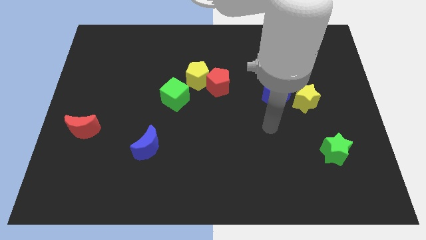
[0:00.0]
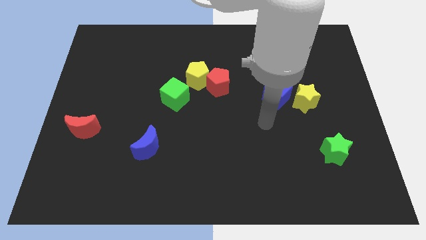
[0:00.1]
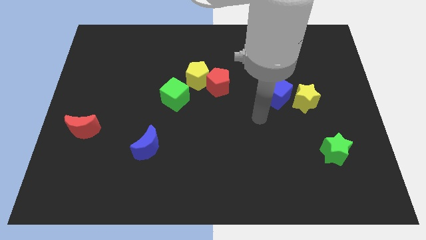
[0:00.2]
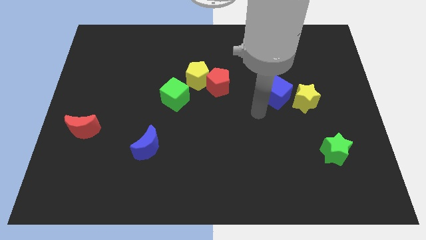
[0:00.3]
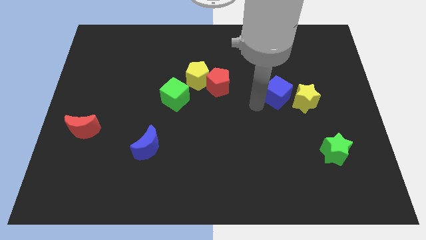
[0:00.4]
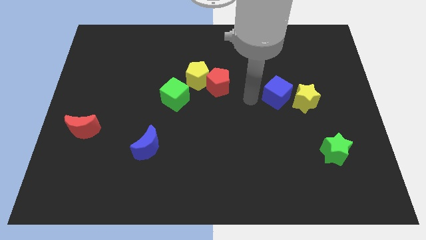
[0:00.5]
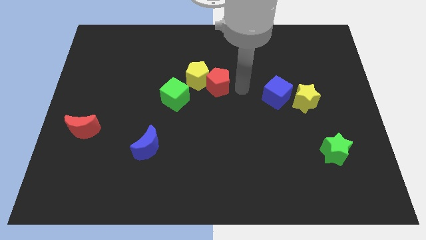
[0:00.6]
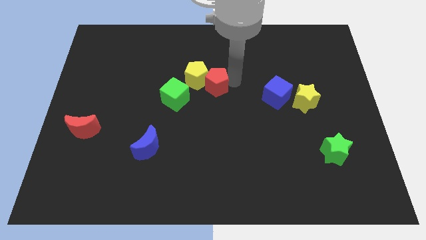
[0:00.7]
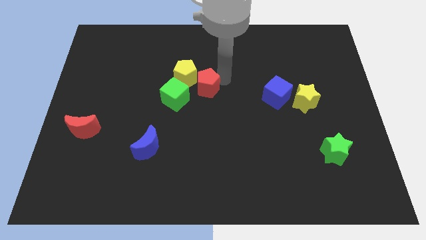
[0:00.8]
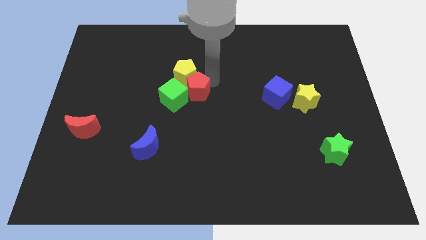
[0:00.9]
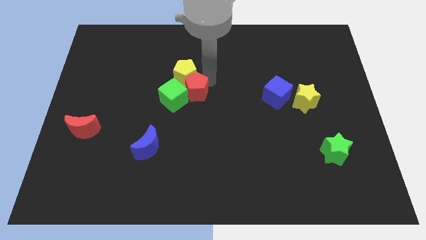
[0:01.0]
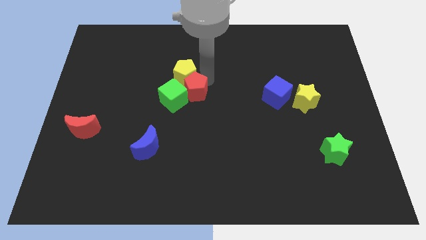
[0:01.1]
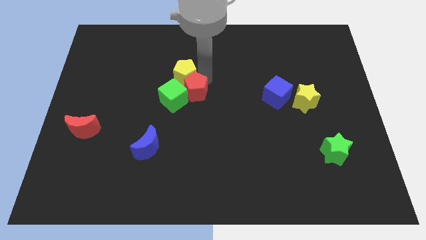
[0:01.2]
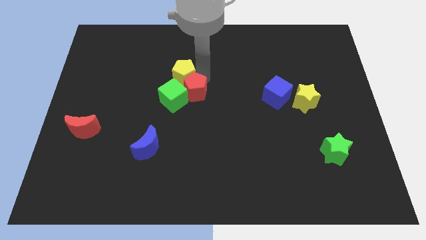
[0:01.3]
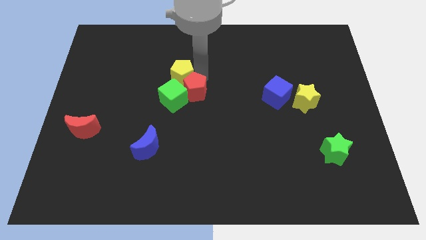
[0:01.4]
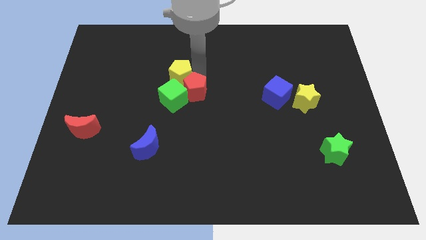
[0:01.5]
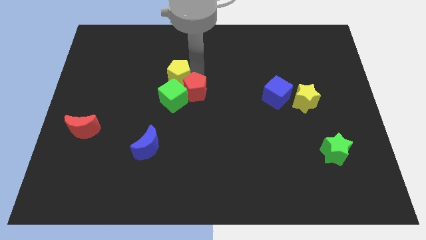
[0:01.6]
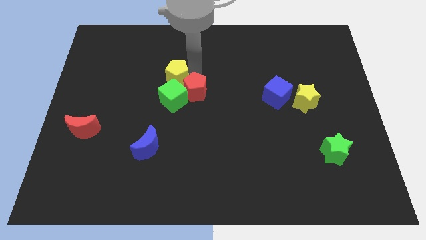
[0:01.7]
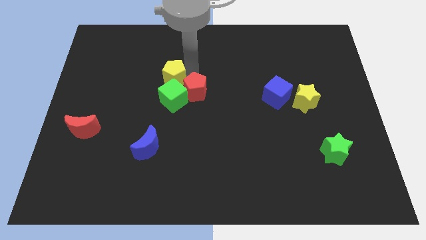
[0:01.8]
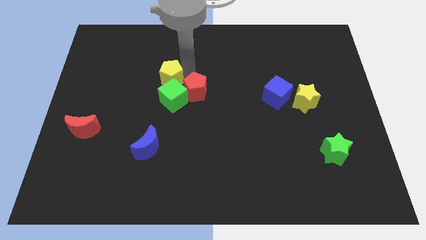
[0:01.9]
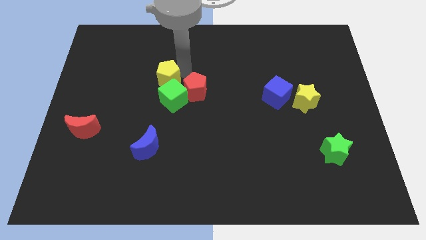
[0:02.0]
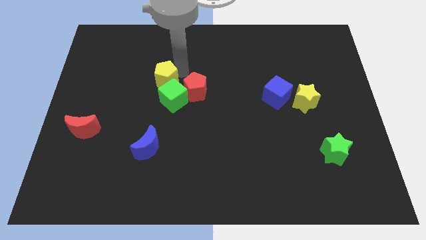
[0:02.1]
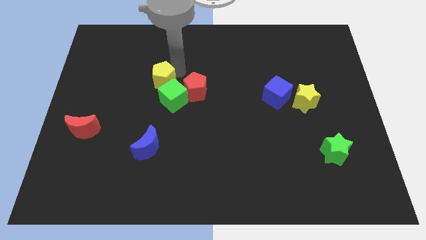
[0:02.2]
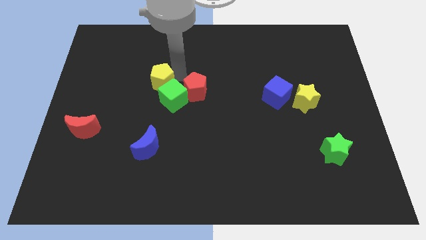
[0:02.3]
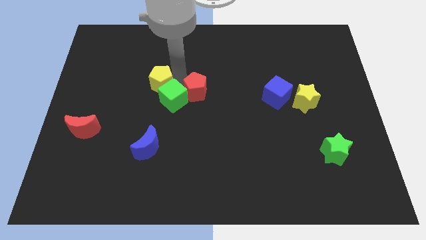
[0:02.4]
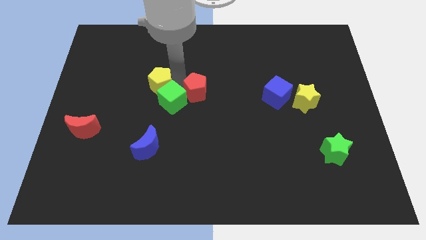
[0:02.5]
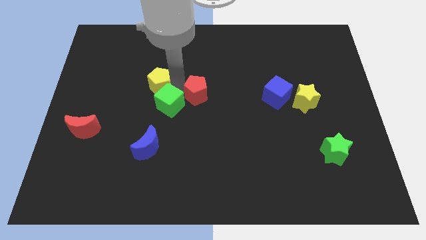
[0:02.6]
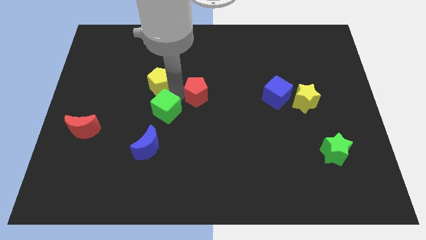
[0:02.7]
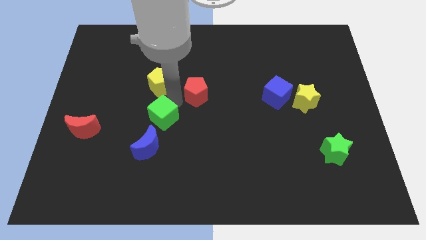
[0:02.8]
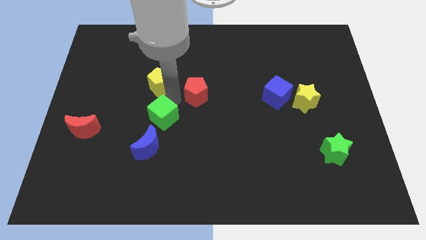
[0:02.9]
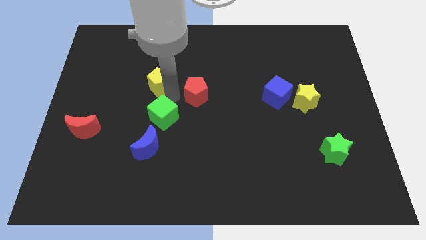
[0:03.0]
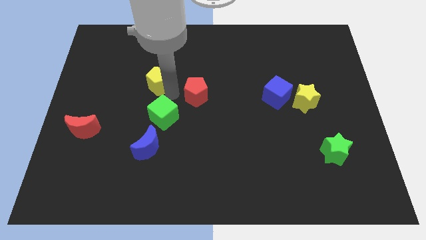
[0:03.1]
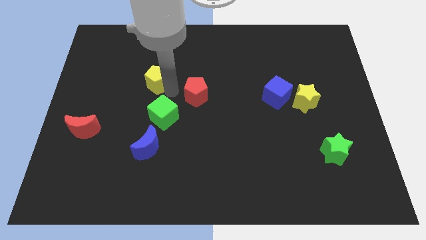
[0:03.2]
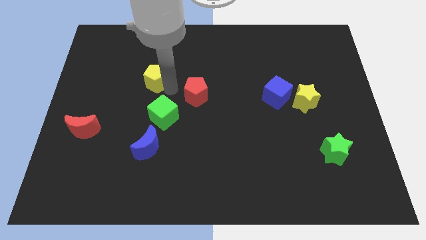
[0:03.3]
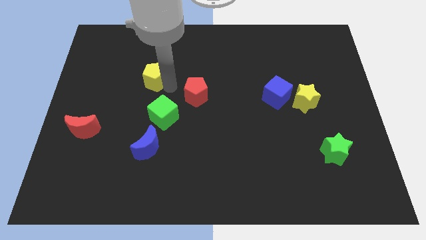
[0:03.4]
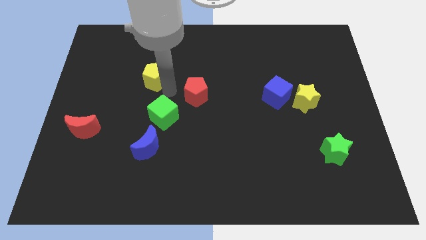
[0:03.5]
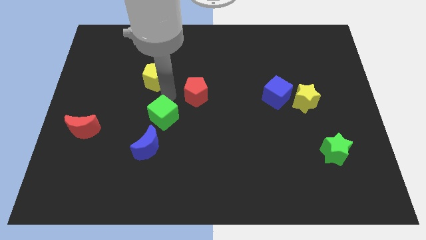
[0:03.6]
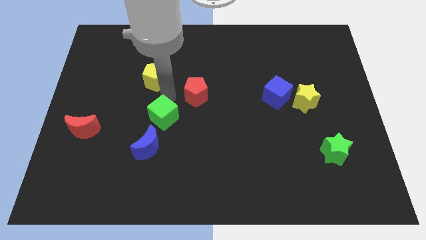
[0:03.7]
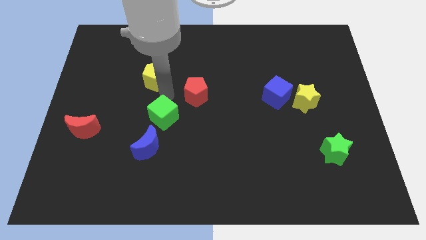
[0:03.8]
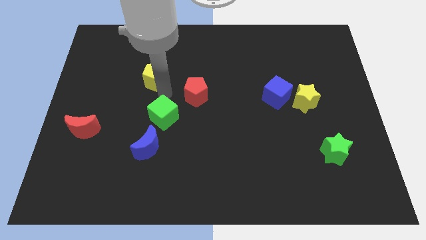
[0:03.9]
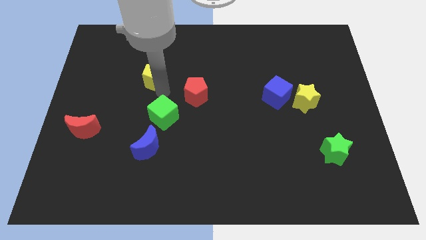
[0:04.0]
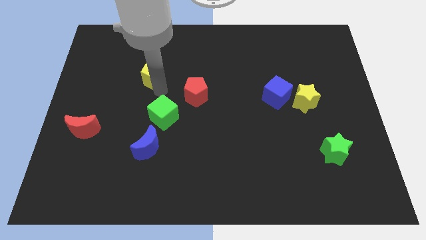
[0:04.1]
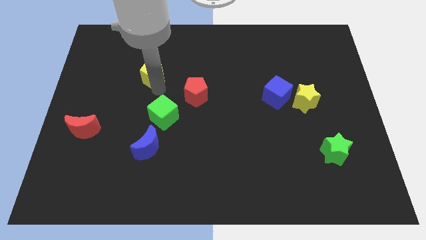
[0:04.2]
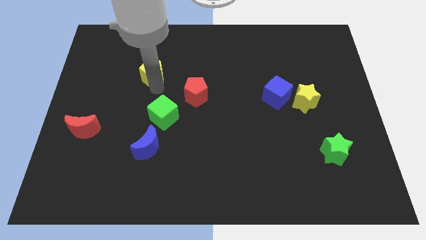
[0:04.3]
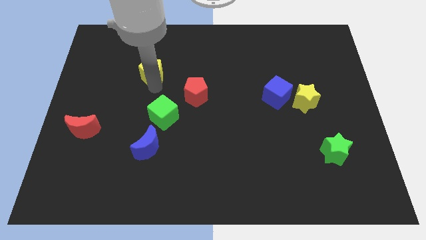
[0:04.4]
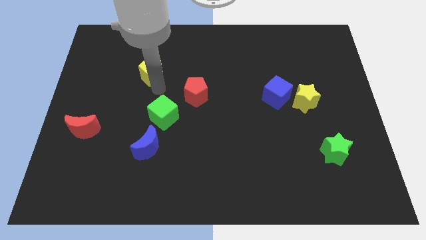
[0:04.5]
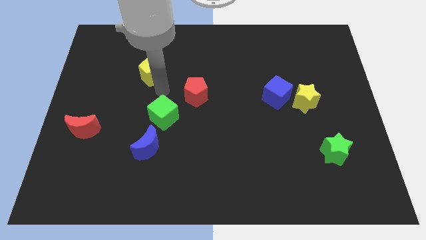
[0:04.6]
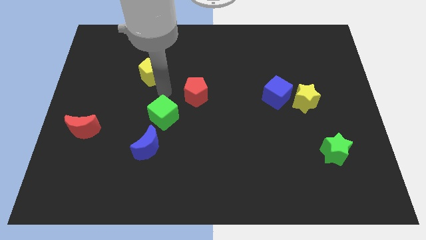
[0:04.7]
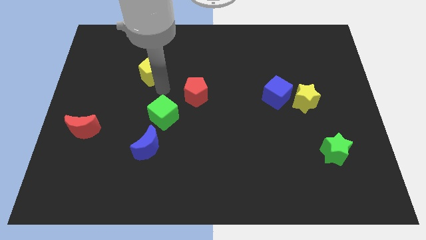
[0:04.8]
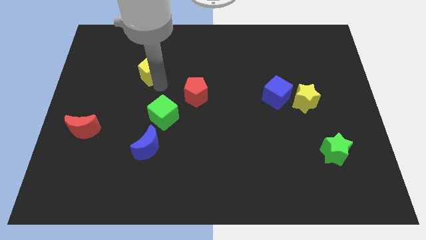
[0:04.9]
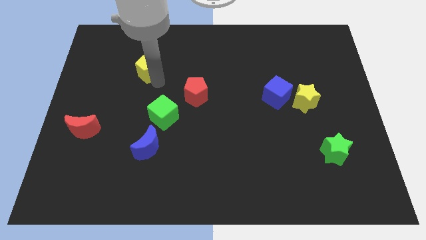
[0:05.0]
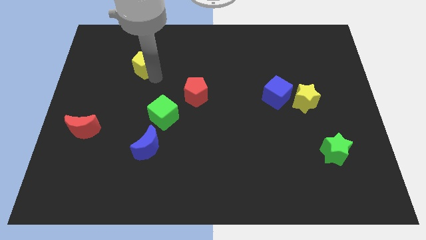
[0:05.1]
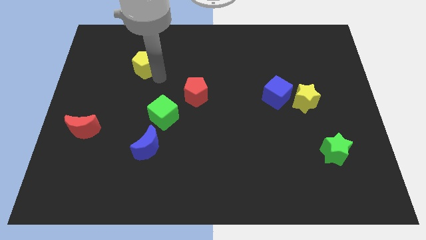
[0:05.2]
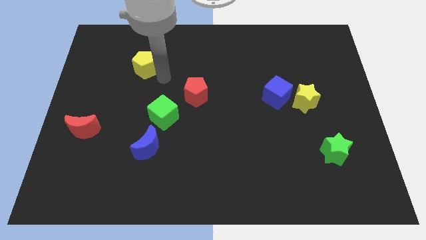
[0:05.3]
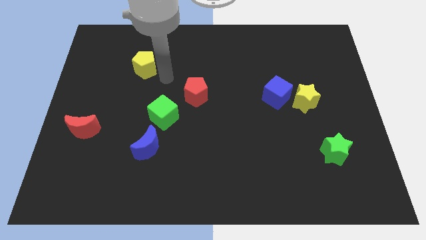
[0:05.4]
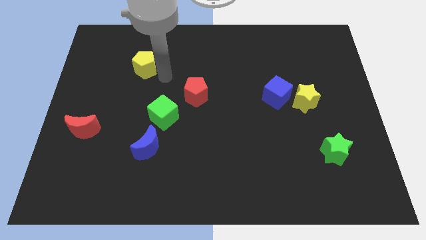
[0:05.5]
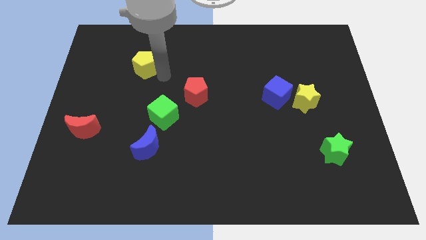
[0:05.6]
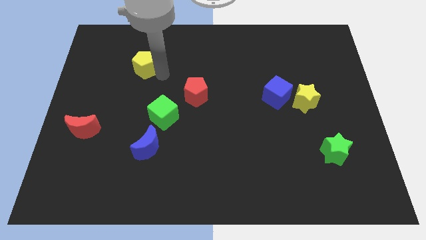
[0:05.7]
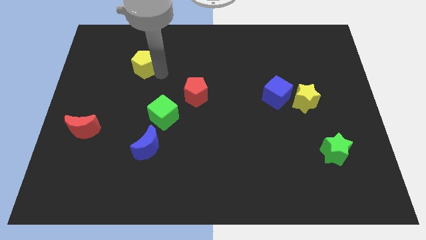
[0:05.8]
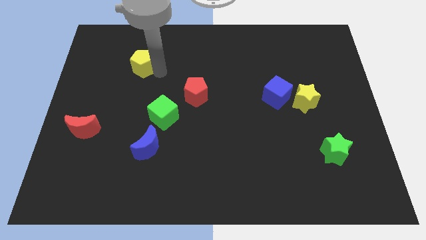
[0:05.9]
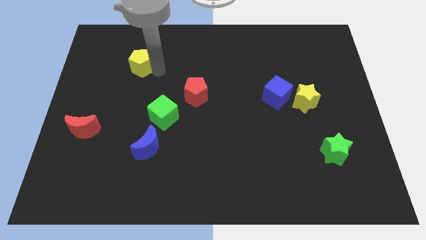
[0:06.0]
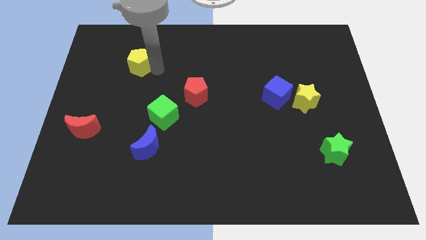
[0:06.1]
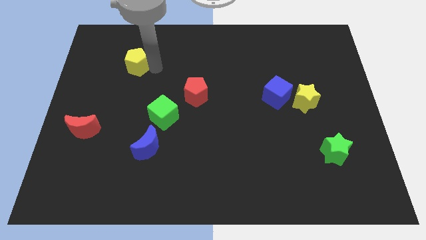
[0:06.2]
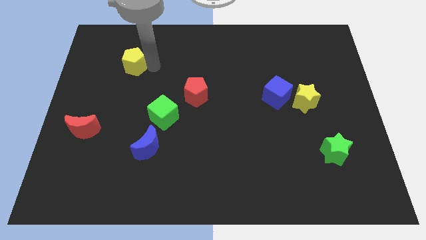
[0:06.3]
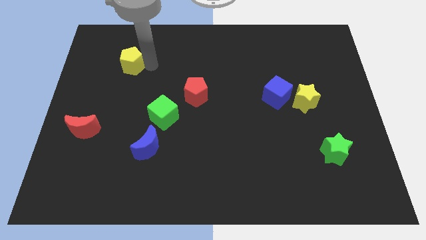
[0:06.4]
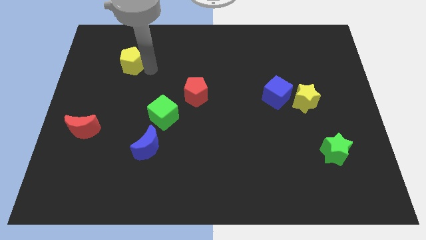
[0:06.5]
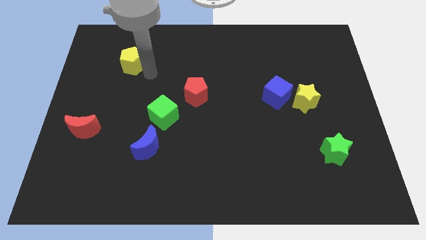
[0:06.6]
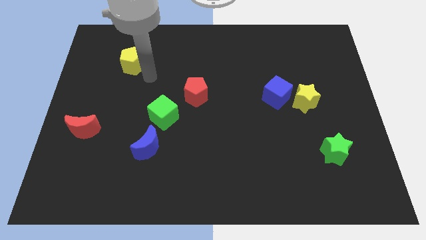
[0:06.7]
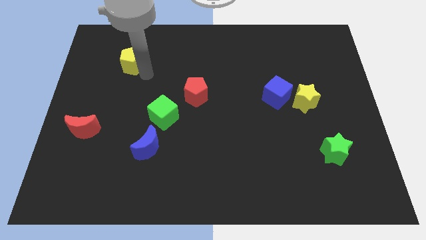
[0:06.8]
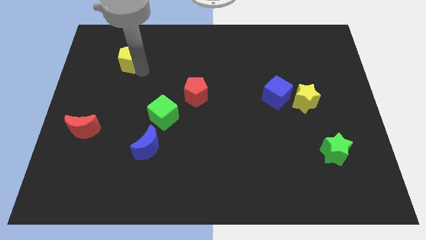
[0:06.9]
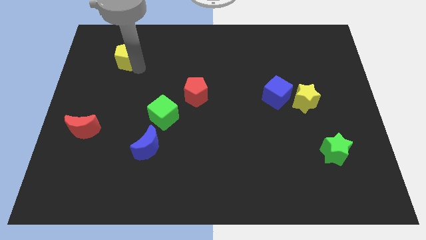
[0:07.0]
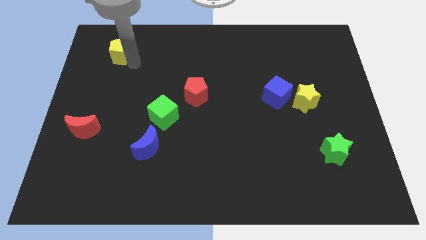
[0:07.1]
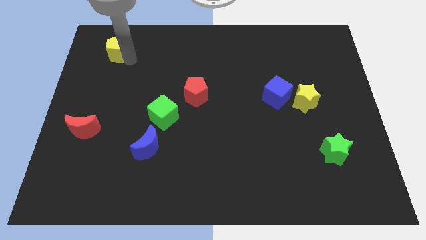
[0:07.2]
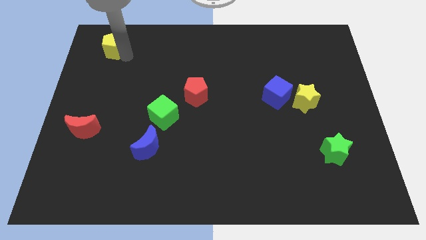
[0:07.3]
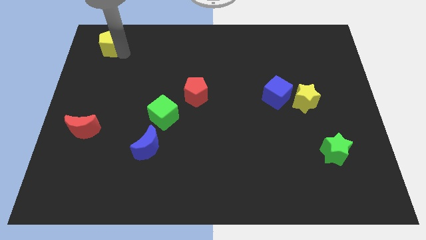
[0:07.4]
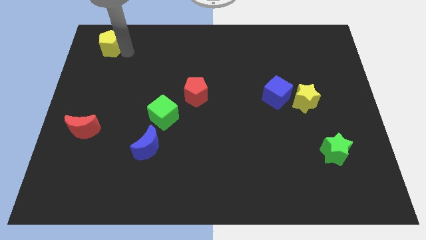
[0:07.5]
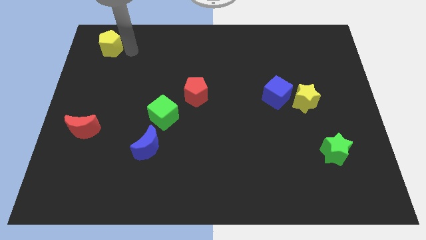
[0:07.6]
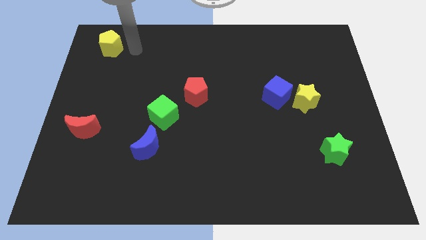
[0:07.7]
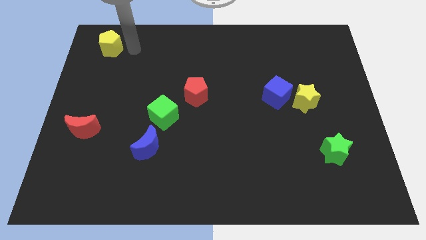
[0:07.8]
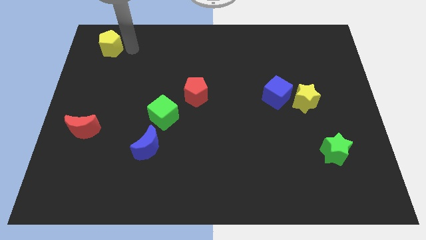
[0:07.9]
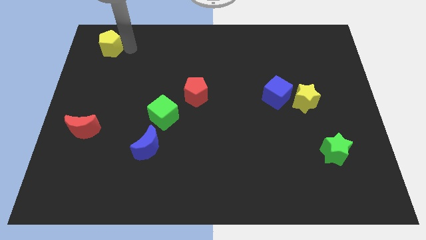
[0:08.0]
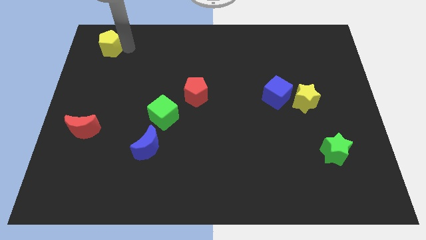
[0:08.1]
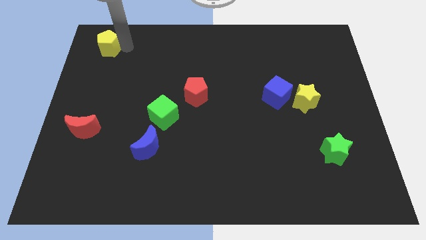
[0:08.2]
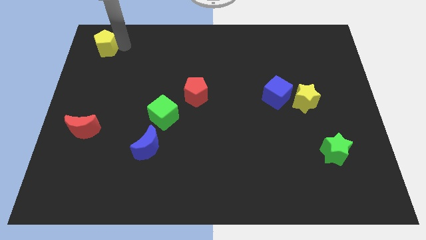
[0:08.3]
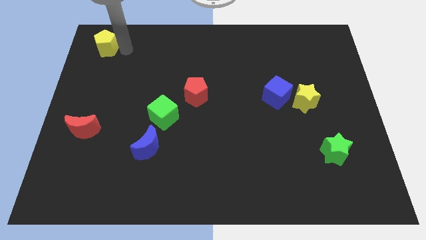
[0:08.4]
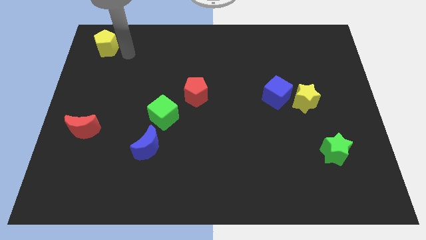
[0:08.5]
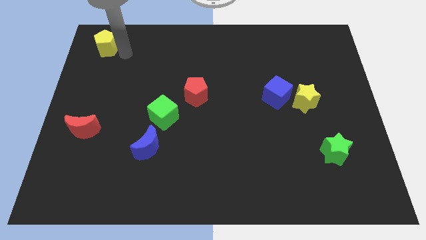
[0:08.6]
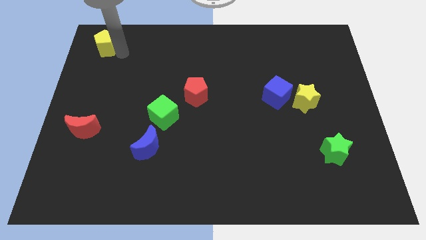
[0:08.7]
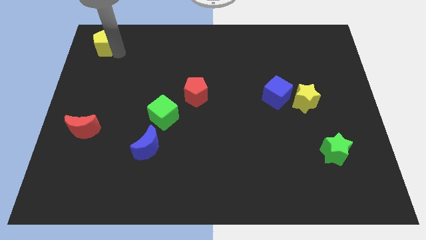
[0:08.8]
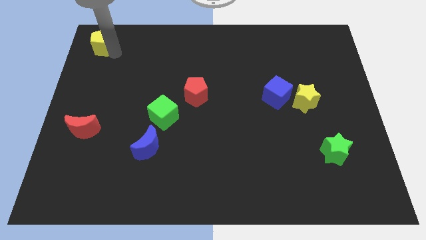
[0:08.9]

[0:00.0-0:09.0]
push the yellow pentagon to the upper left corner
